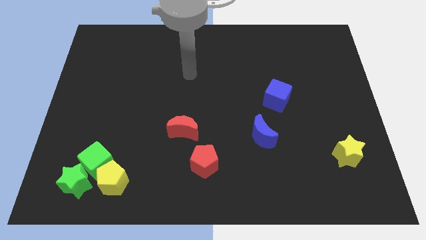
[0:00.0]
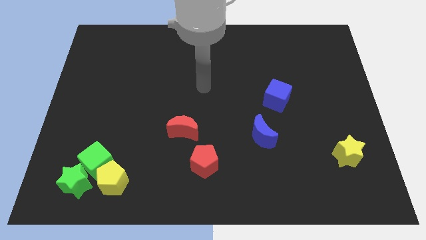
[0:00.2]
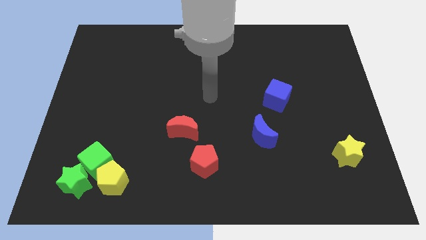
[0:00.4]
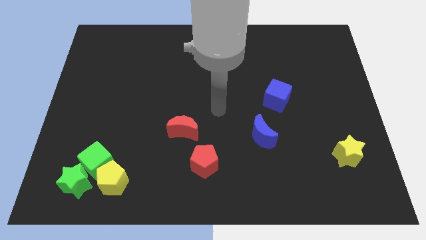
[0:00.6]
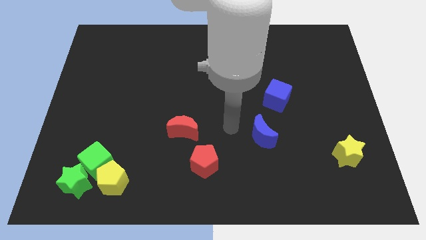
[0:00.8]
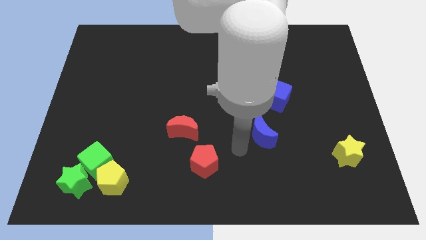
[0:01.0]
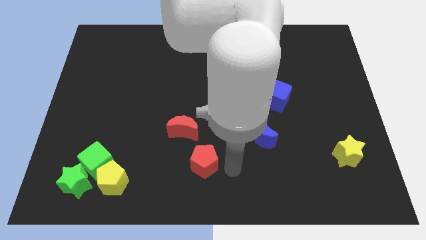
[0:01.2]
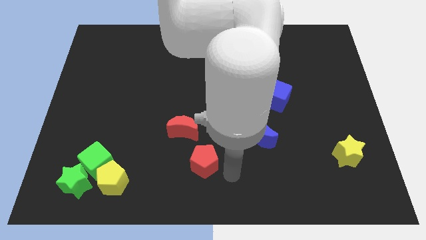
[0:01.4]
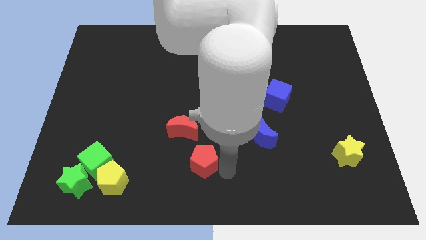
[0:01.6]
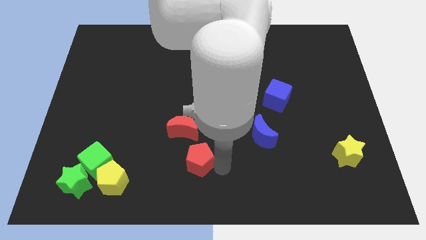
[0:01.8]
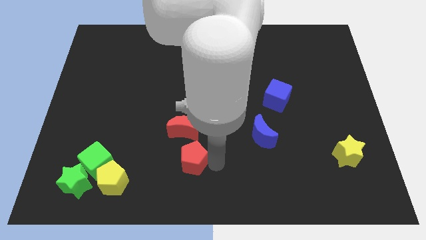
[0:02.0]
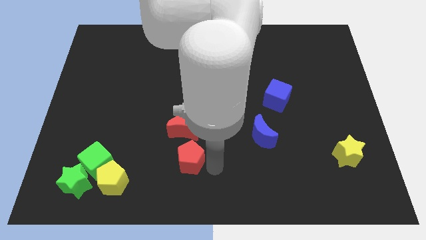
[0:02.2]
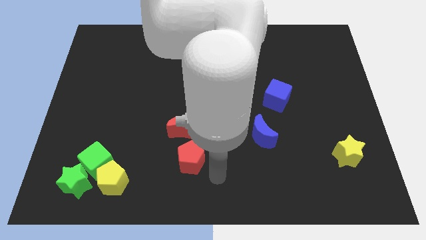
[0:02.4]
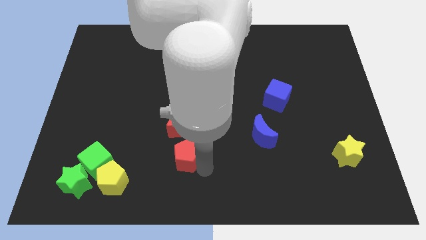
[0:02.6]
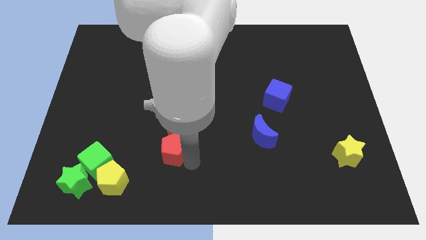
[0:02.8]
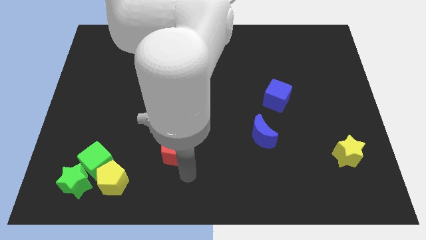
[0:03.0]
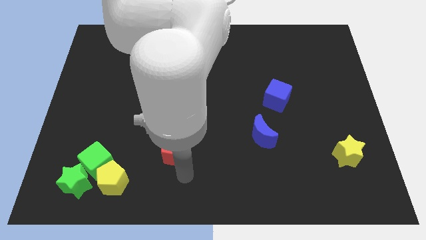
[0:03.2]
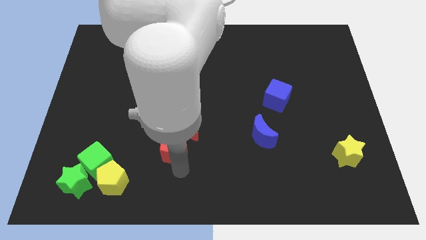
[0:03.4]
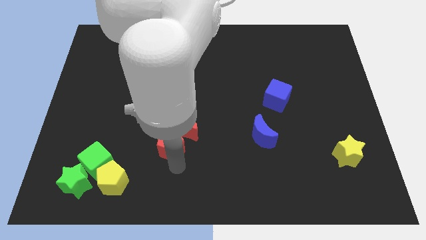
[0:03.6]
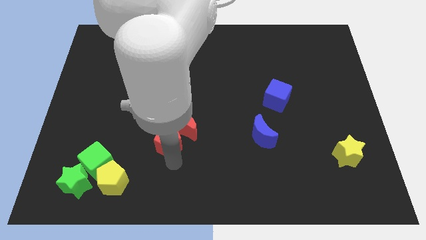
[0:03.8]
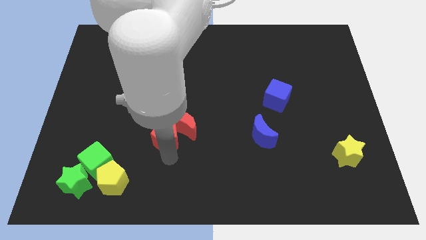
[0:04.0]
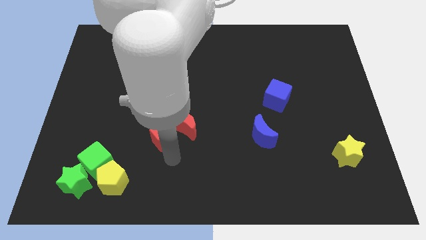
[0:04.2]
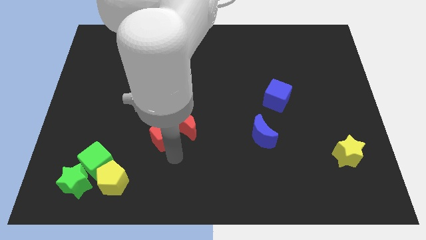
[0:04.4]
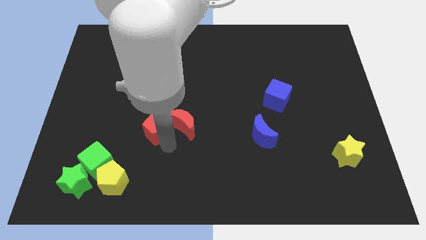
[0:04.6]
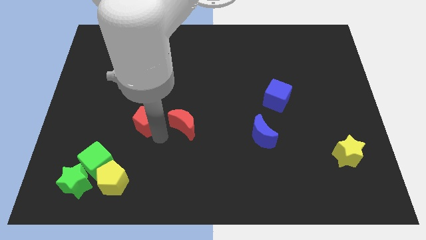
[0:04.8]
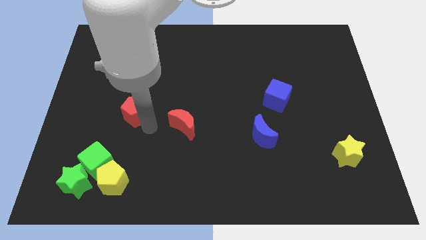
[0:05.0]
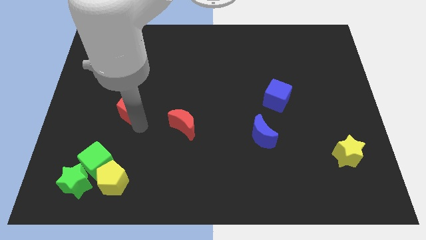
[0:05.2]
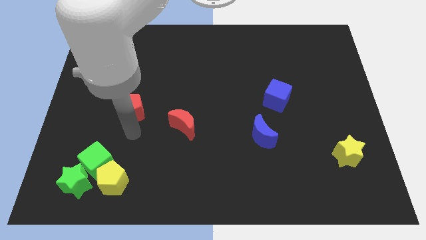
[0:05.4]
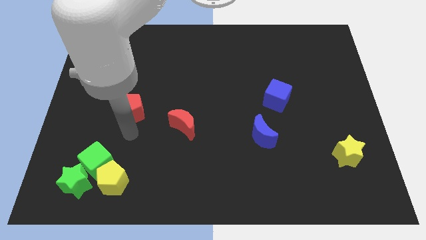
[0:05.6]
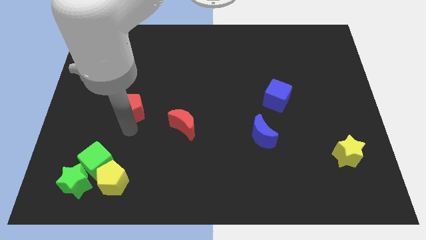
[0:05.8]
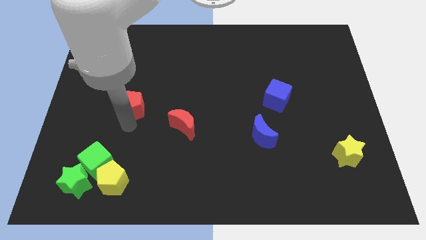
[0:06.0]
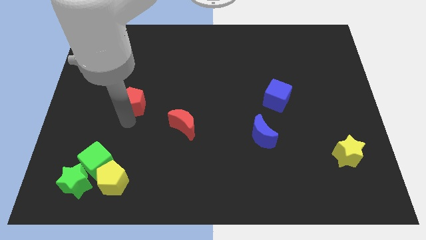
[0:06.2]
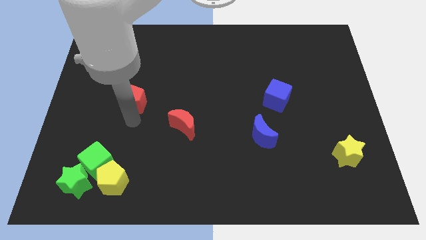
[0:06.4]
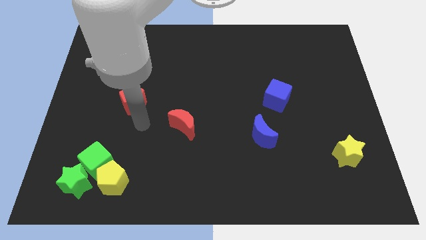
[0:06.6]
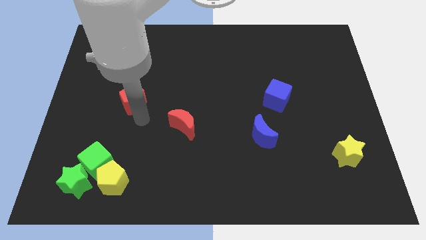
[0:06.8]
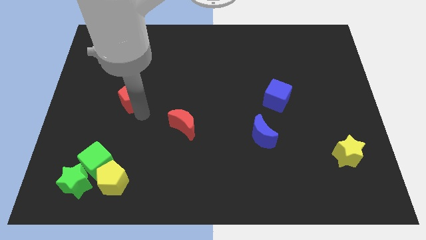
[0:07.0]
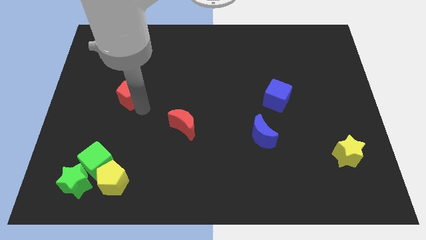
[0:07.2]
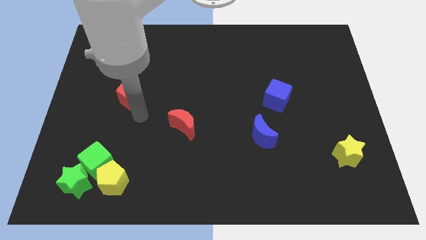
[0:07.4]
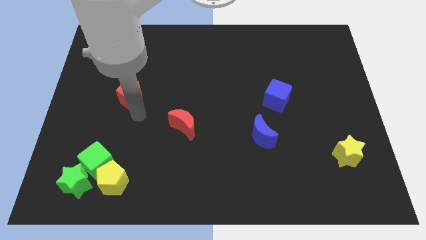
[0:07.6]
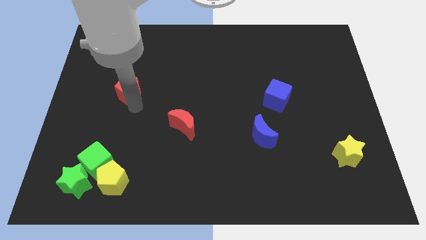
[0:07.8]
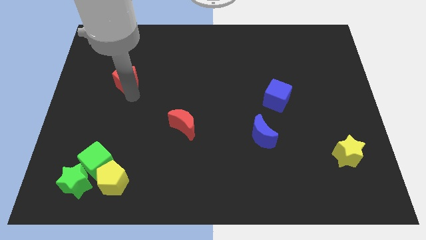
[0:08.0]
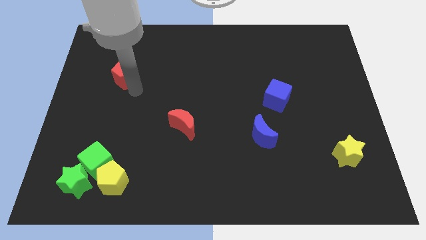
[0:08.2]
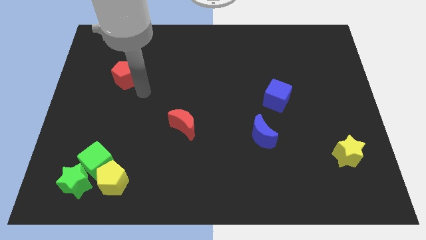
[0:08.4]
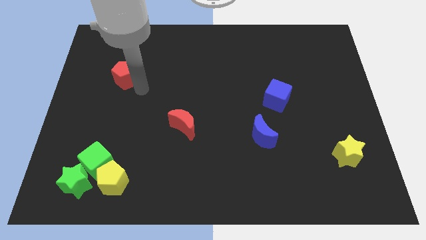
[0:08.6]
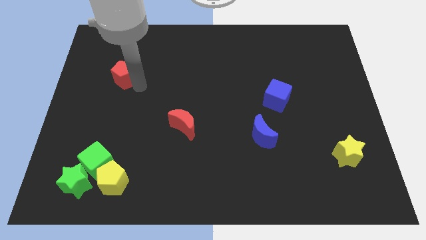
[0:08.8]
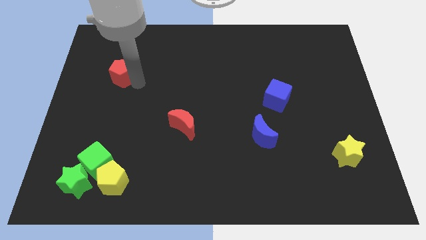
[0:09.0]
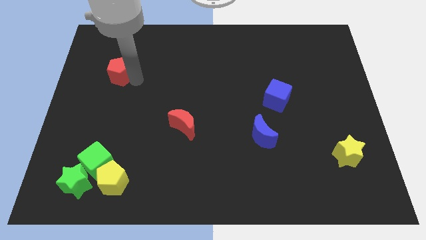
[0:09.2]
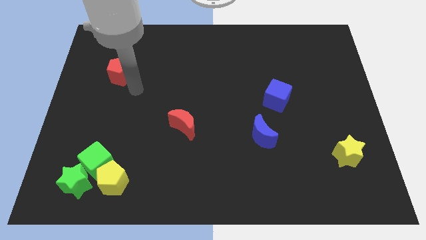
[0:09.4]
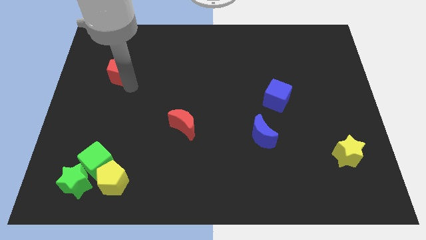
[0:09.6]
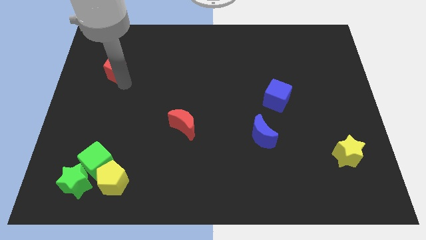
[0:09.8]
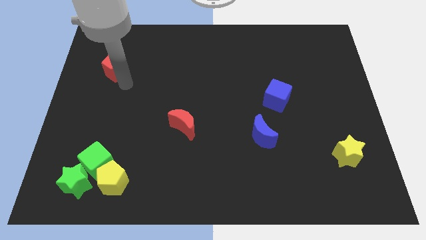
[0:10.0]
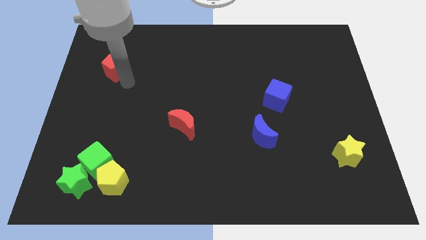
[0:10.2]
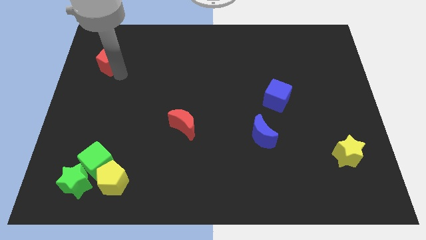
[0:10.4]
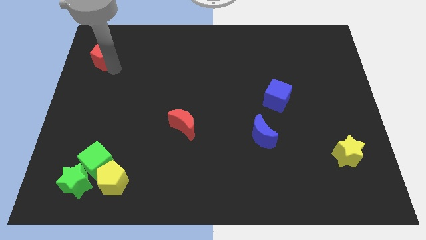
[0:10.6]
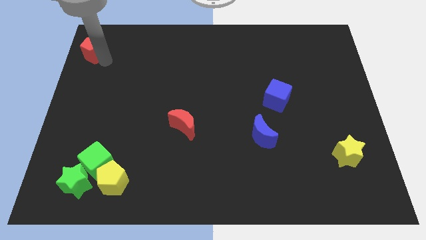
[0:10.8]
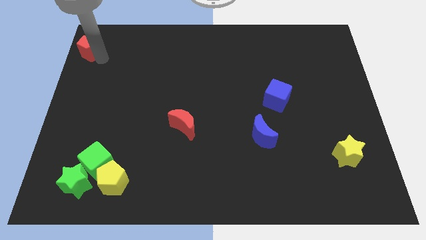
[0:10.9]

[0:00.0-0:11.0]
move the red pentagon to the upper left corner

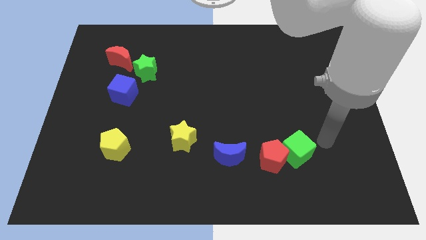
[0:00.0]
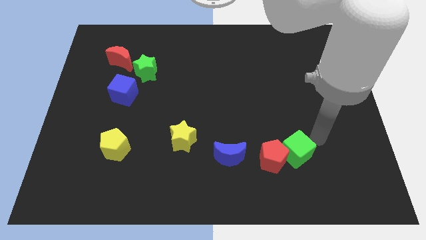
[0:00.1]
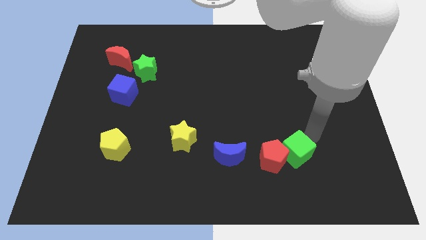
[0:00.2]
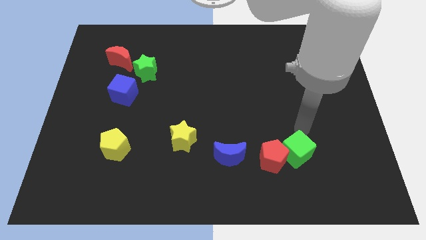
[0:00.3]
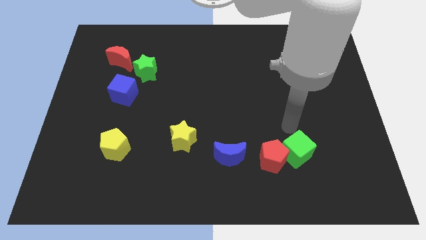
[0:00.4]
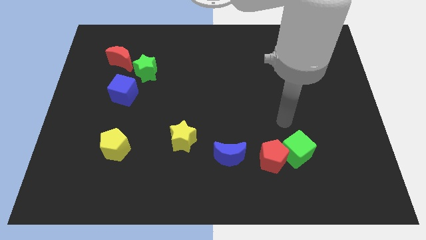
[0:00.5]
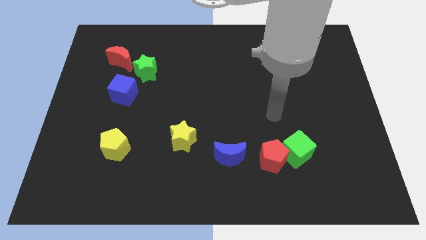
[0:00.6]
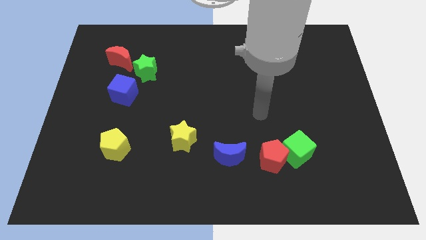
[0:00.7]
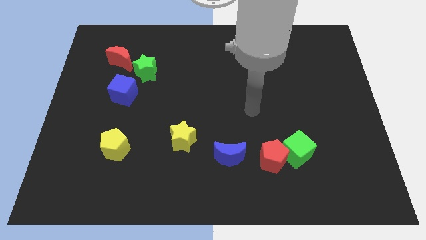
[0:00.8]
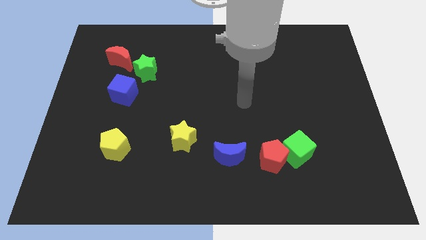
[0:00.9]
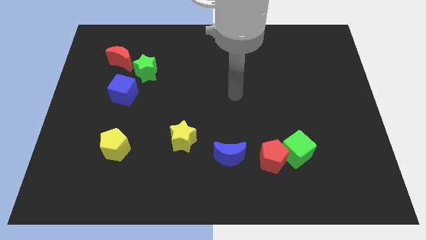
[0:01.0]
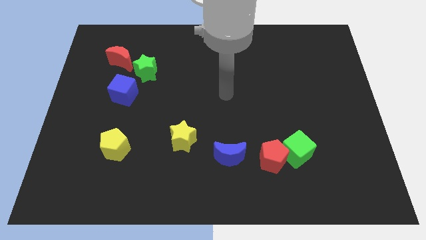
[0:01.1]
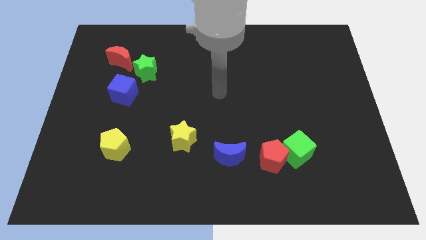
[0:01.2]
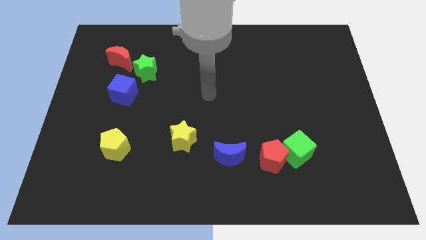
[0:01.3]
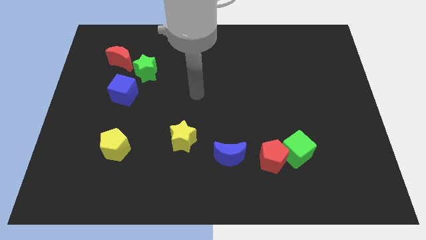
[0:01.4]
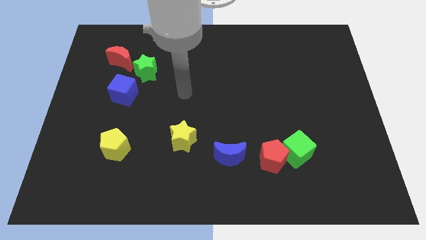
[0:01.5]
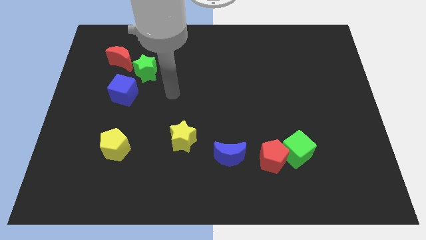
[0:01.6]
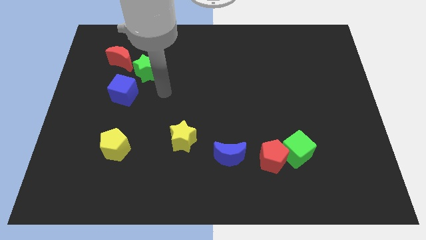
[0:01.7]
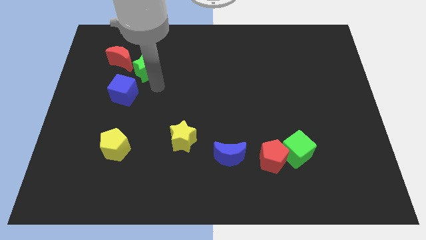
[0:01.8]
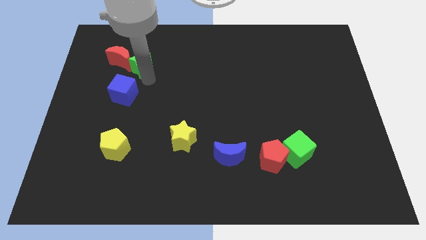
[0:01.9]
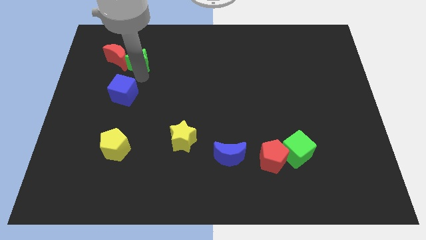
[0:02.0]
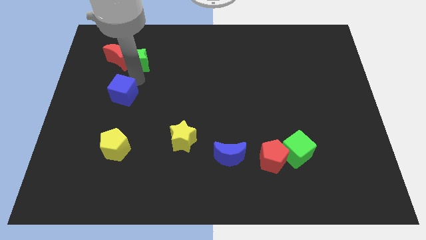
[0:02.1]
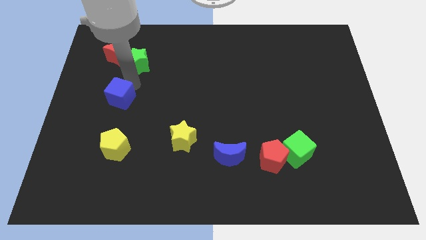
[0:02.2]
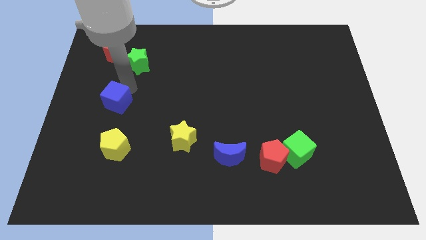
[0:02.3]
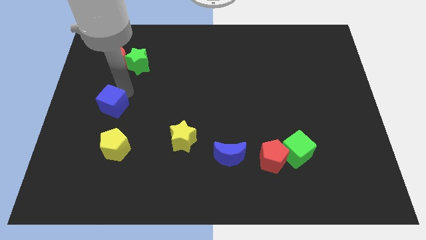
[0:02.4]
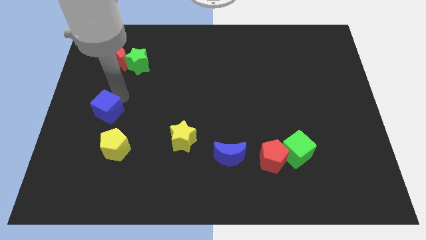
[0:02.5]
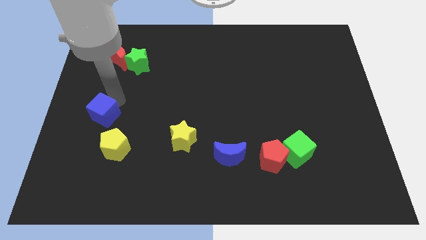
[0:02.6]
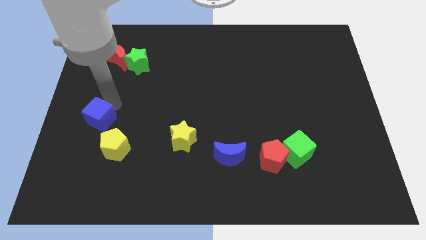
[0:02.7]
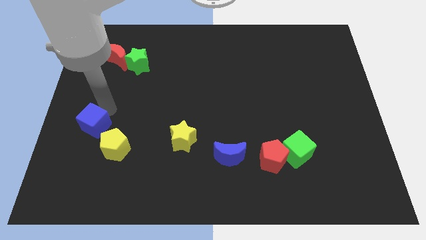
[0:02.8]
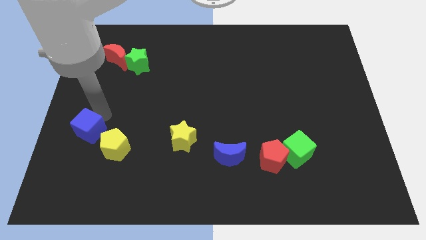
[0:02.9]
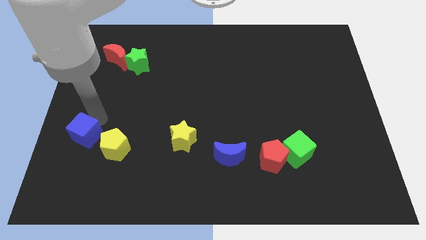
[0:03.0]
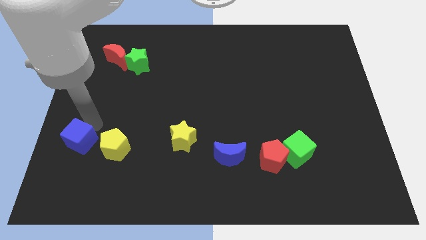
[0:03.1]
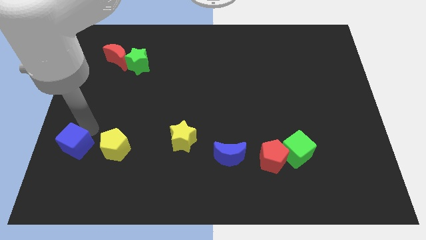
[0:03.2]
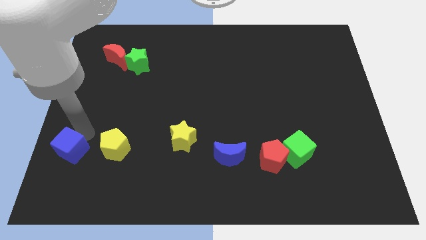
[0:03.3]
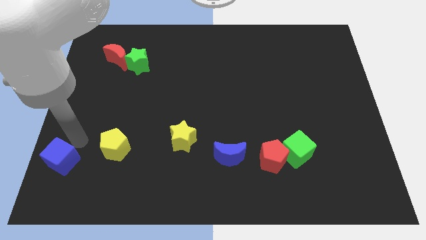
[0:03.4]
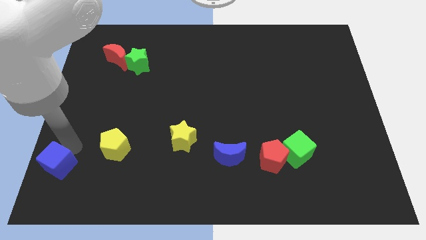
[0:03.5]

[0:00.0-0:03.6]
move the blue cube to the bottom left corner
